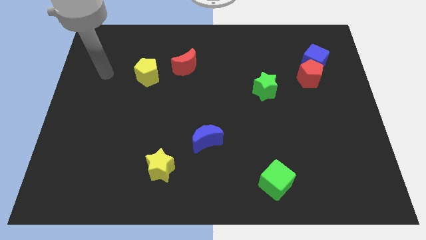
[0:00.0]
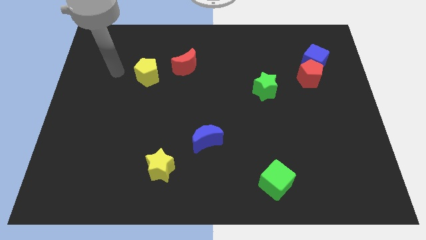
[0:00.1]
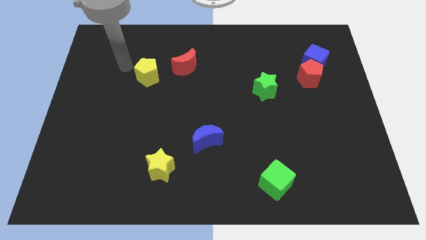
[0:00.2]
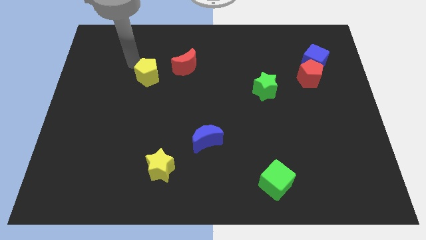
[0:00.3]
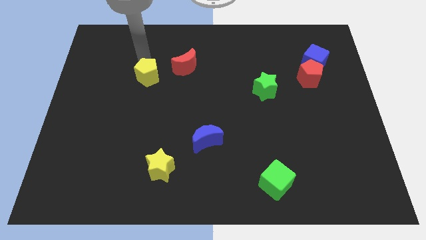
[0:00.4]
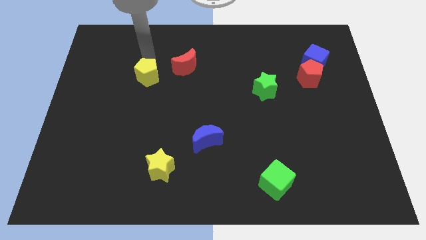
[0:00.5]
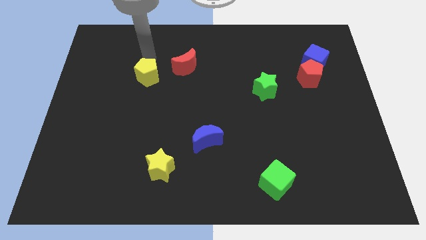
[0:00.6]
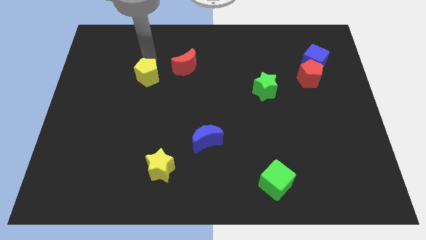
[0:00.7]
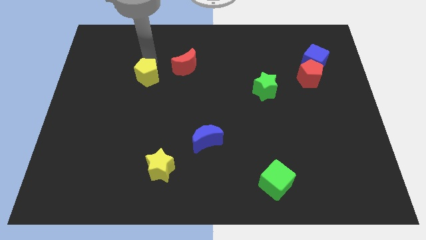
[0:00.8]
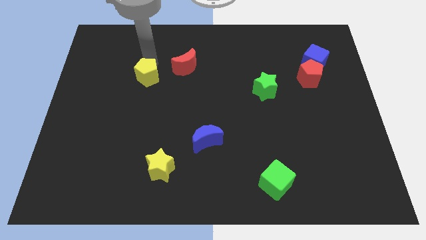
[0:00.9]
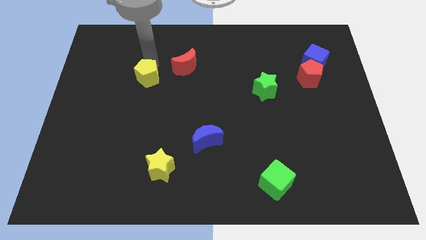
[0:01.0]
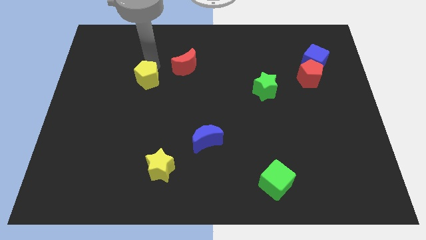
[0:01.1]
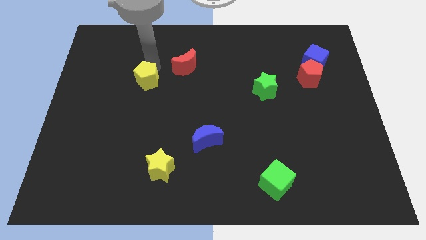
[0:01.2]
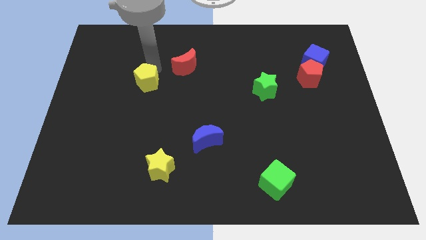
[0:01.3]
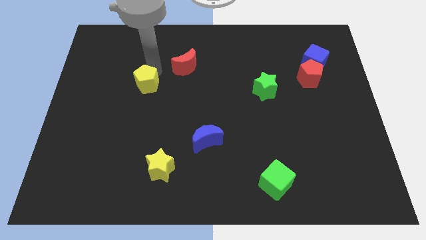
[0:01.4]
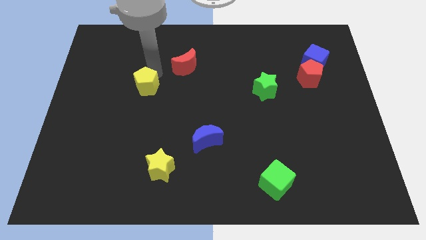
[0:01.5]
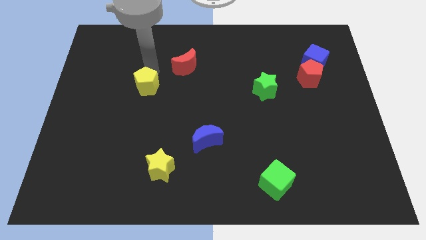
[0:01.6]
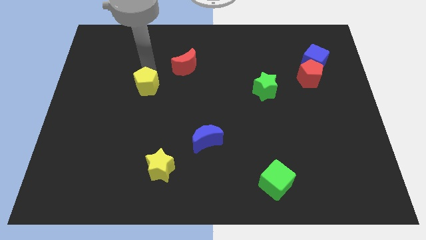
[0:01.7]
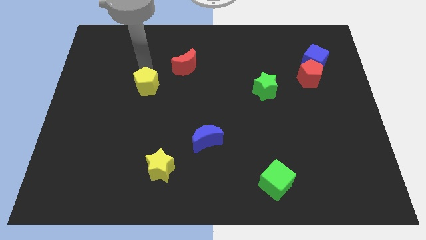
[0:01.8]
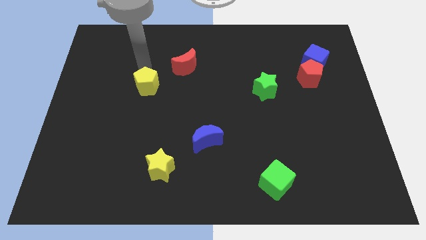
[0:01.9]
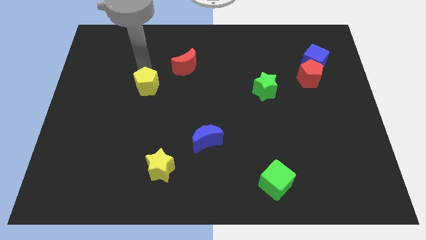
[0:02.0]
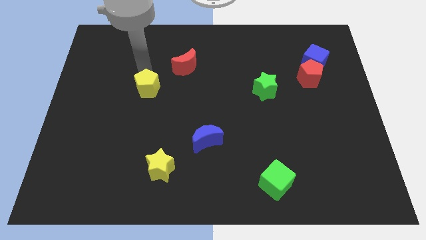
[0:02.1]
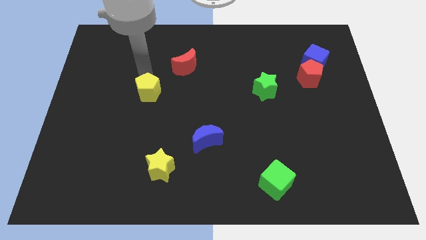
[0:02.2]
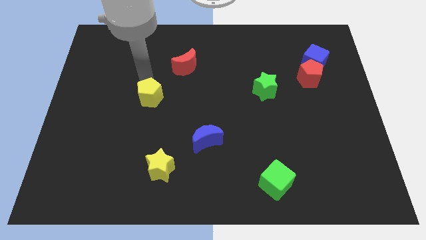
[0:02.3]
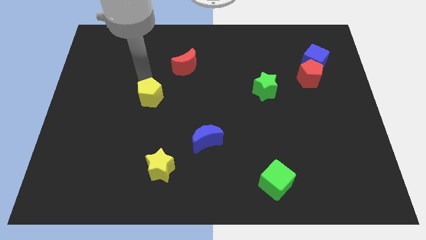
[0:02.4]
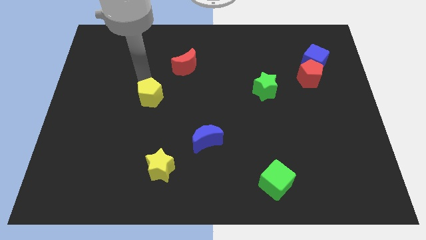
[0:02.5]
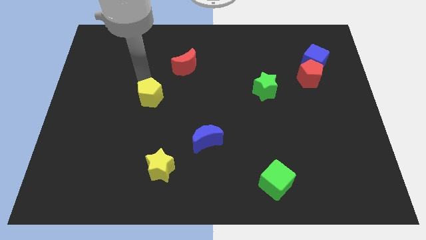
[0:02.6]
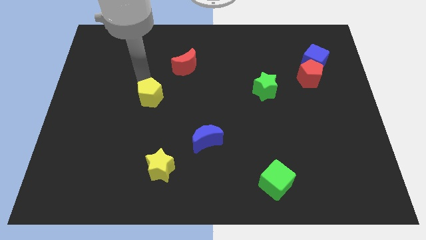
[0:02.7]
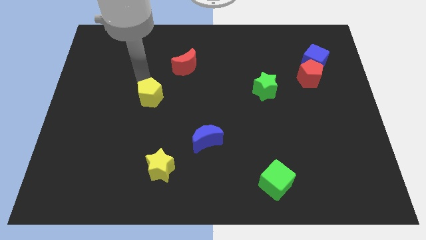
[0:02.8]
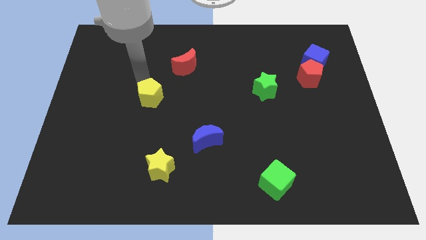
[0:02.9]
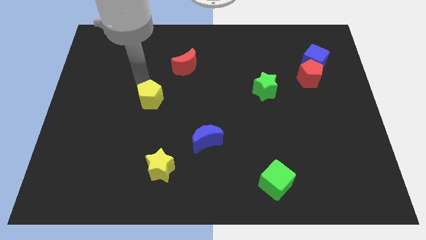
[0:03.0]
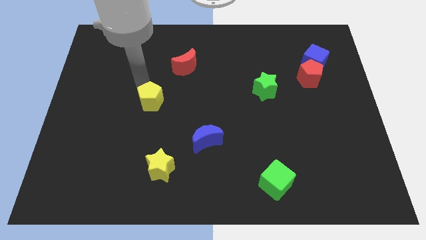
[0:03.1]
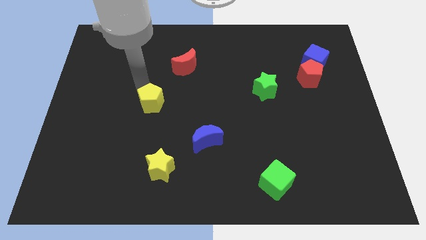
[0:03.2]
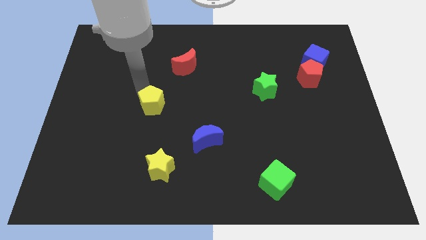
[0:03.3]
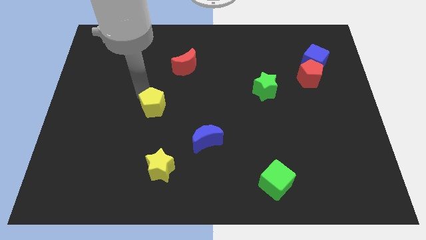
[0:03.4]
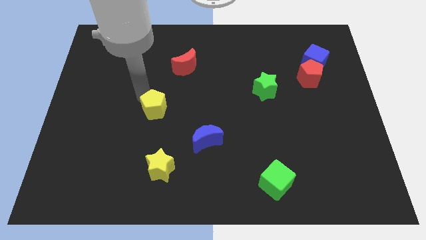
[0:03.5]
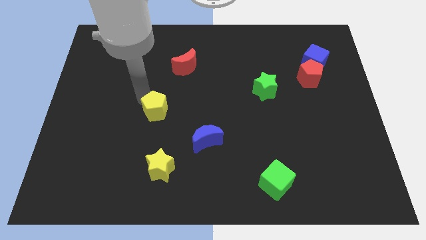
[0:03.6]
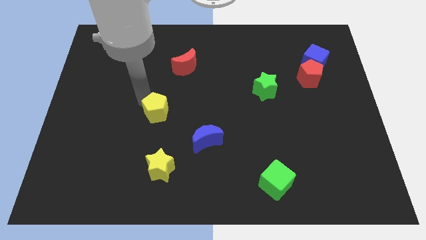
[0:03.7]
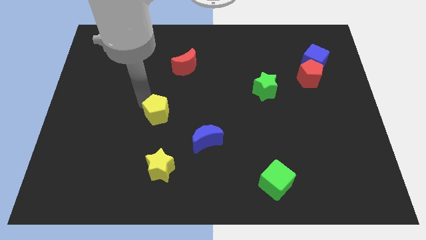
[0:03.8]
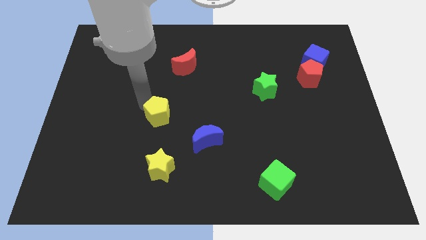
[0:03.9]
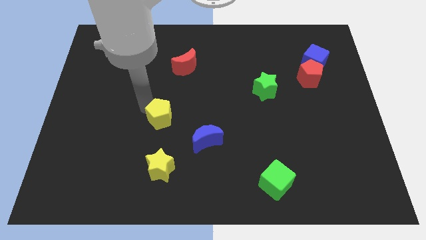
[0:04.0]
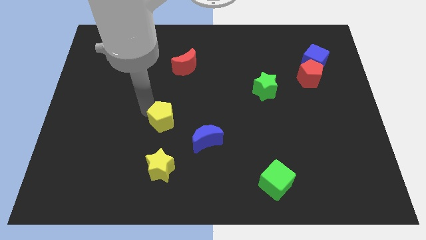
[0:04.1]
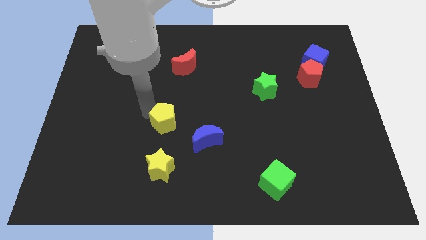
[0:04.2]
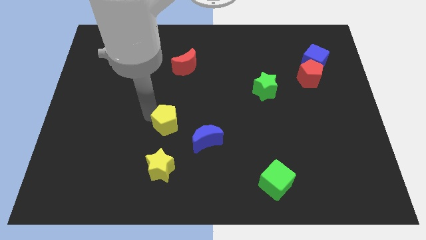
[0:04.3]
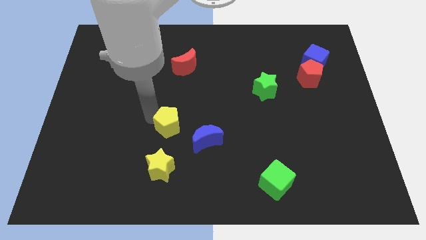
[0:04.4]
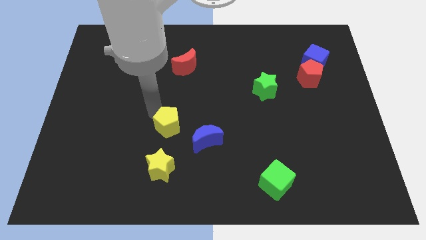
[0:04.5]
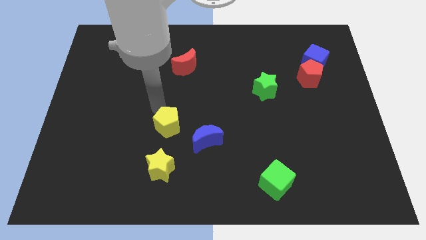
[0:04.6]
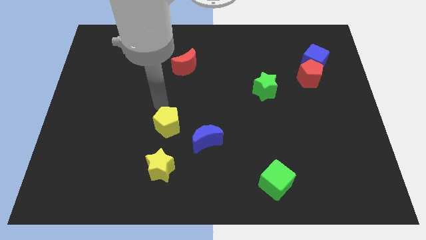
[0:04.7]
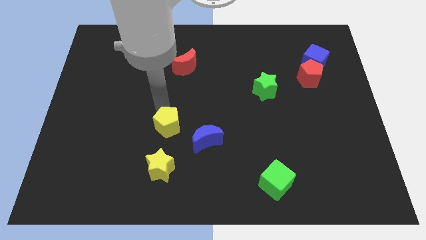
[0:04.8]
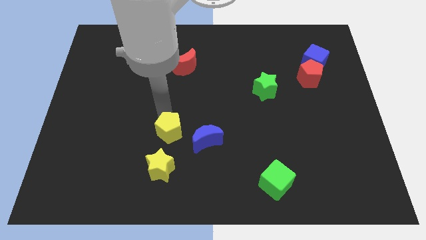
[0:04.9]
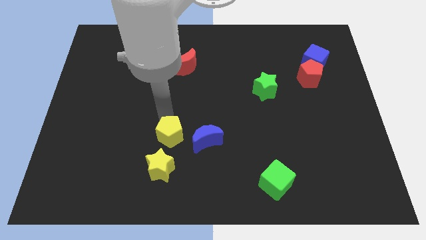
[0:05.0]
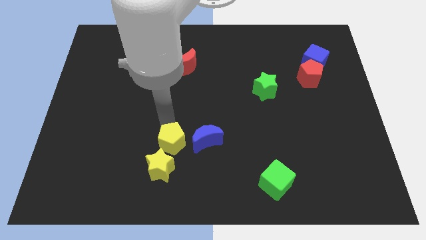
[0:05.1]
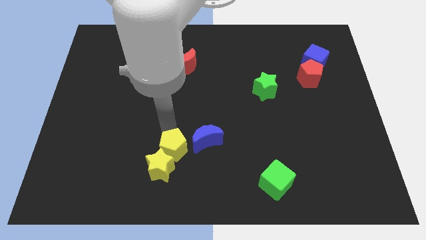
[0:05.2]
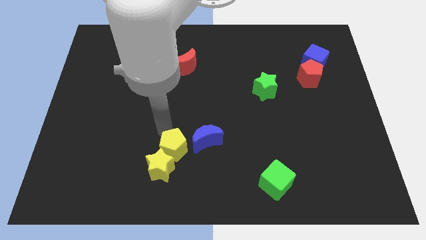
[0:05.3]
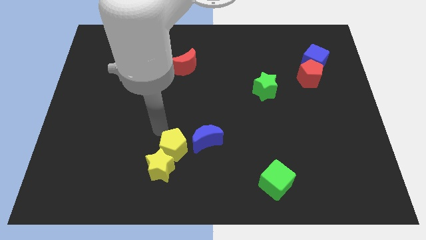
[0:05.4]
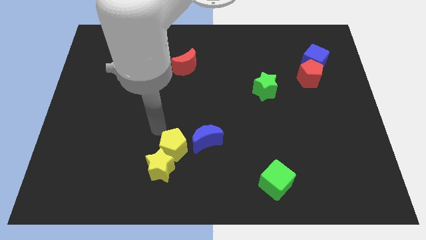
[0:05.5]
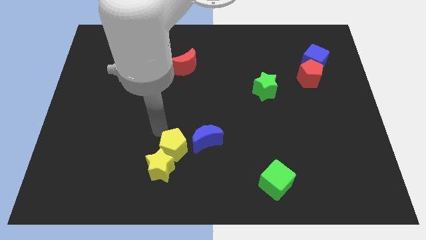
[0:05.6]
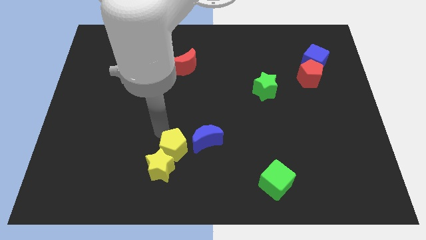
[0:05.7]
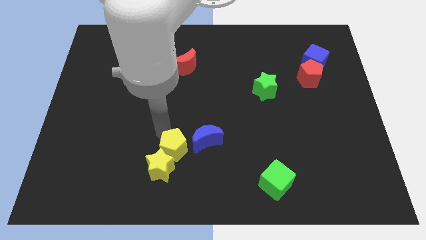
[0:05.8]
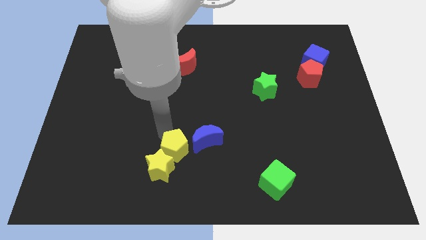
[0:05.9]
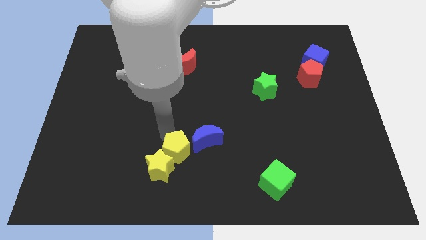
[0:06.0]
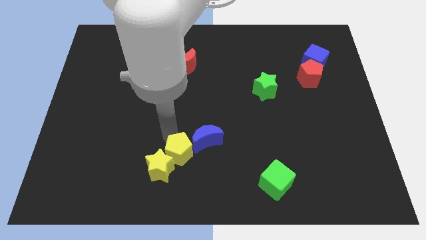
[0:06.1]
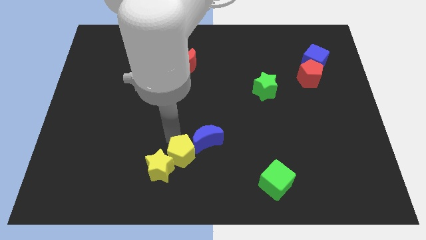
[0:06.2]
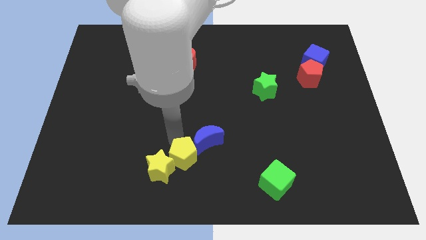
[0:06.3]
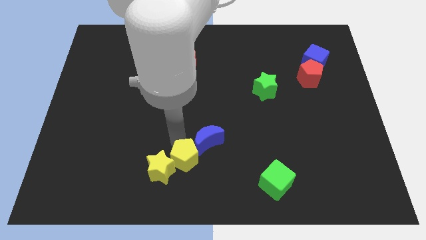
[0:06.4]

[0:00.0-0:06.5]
put the yellow pentagon to the bottom
